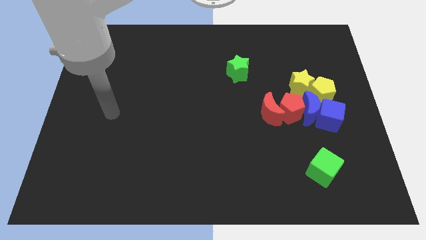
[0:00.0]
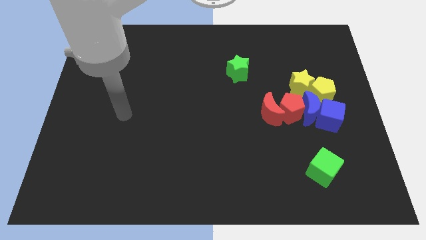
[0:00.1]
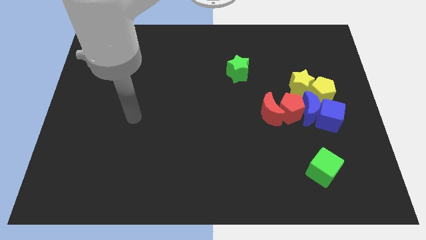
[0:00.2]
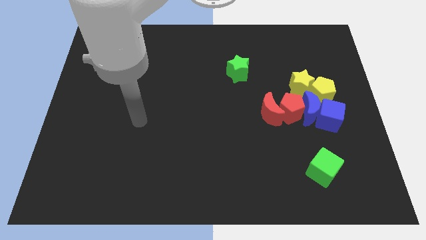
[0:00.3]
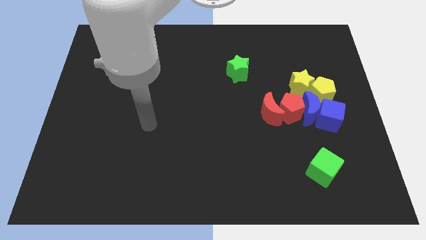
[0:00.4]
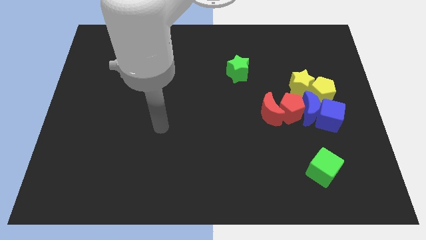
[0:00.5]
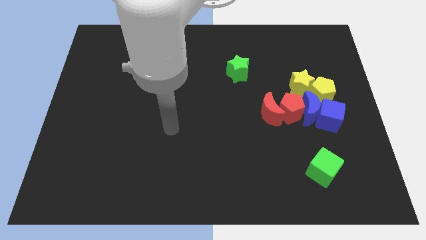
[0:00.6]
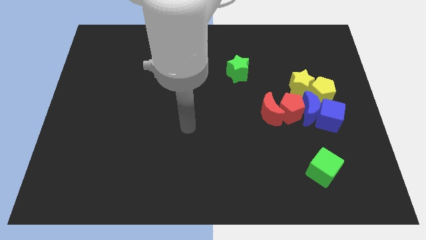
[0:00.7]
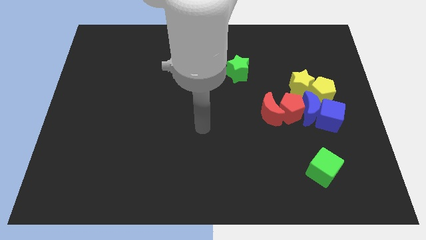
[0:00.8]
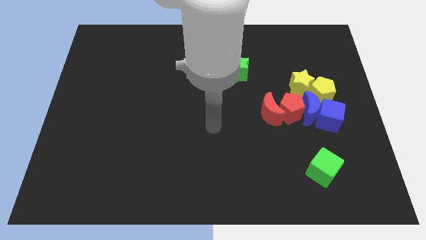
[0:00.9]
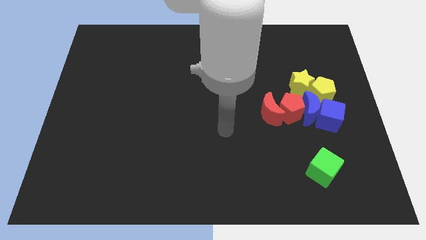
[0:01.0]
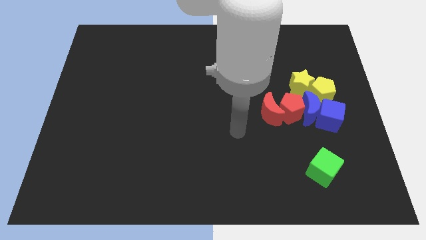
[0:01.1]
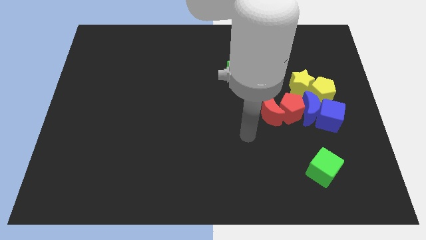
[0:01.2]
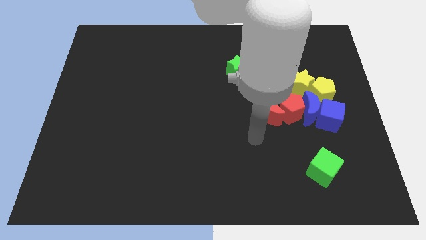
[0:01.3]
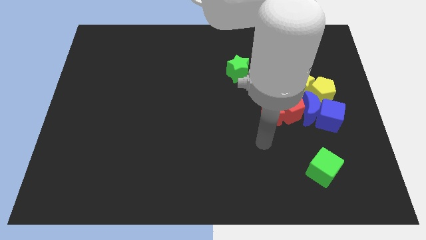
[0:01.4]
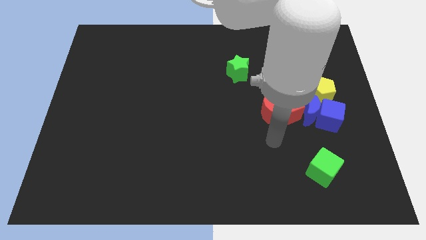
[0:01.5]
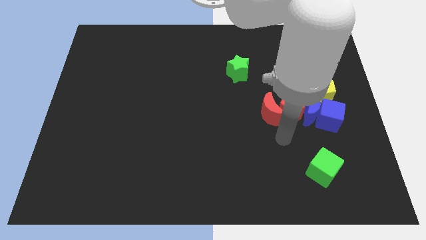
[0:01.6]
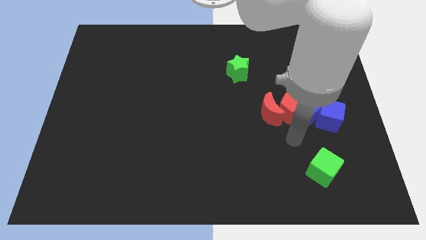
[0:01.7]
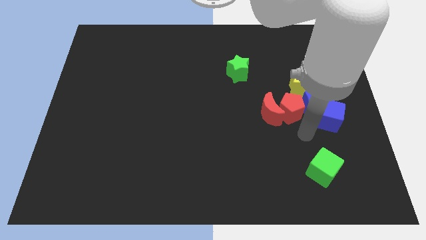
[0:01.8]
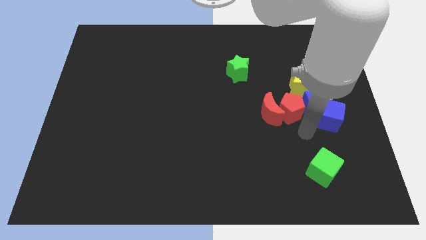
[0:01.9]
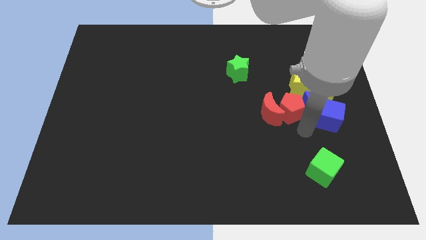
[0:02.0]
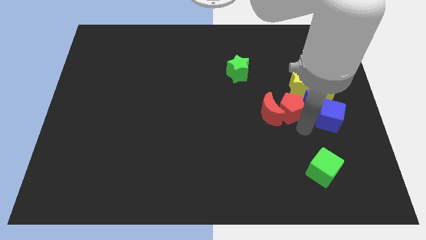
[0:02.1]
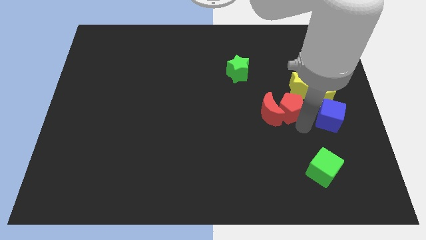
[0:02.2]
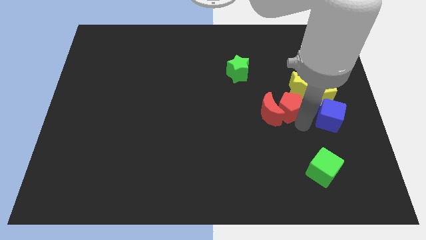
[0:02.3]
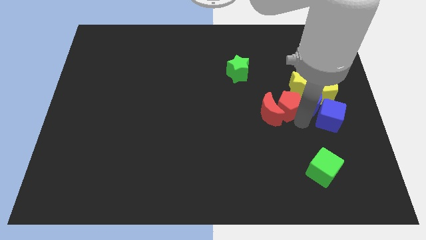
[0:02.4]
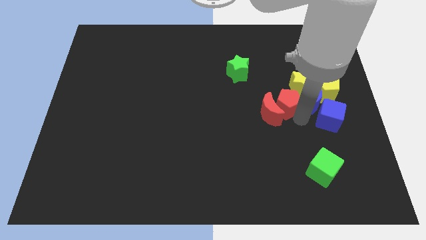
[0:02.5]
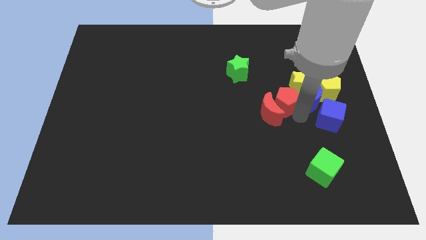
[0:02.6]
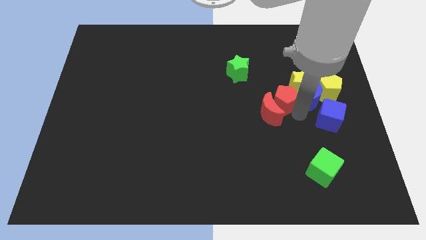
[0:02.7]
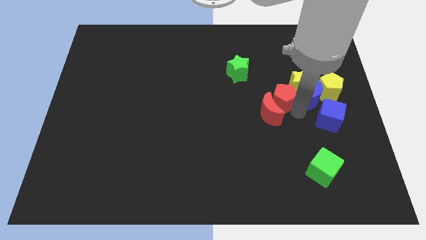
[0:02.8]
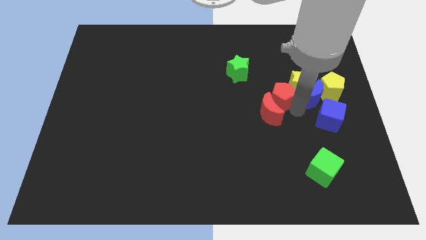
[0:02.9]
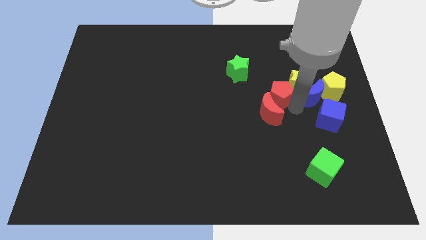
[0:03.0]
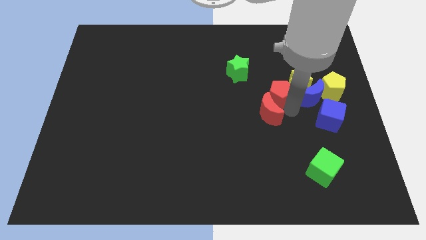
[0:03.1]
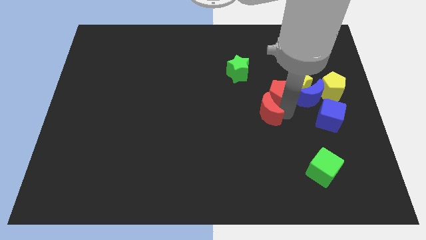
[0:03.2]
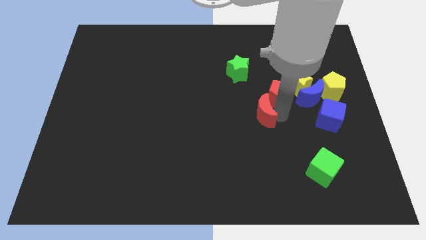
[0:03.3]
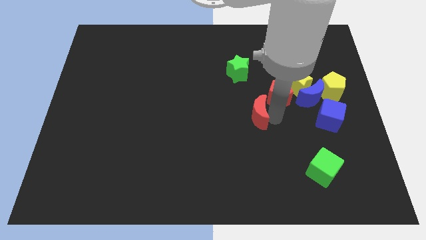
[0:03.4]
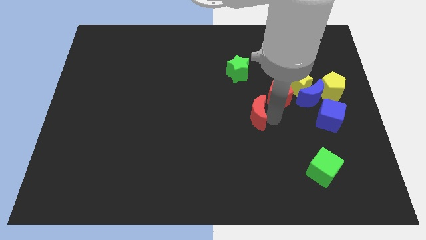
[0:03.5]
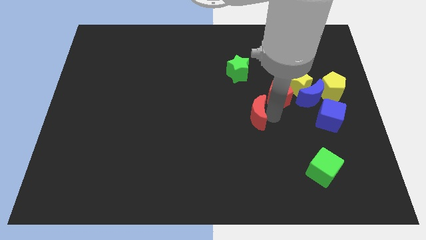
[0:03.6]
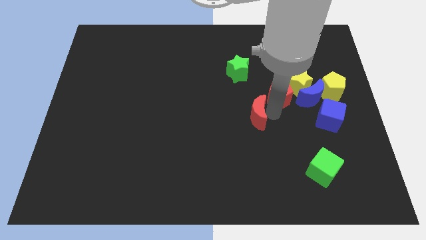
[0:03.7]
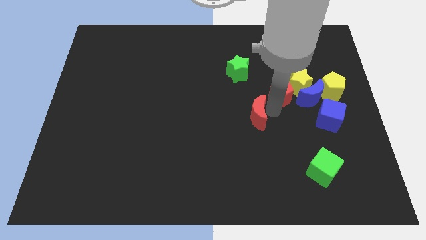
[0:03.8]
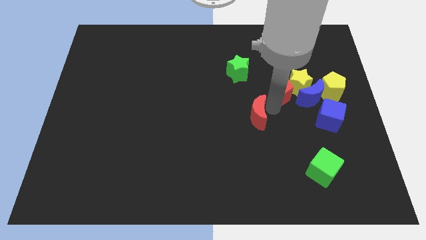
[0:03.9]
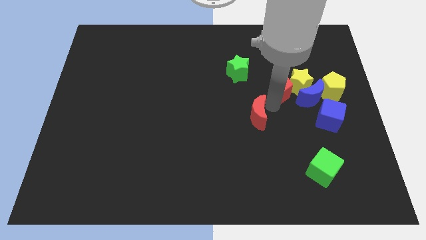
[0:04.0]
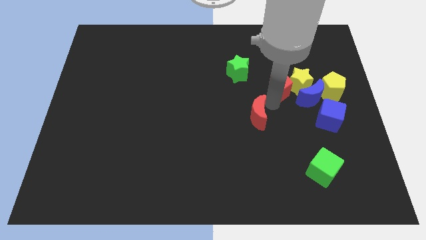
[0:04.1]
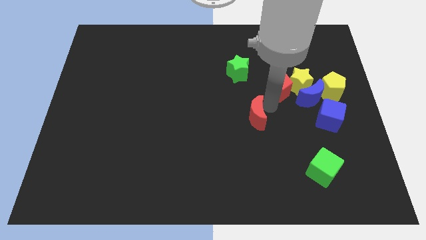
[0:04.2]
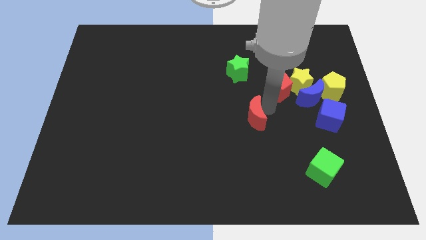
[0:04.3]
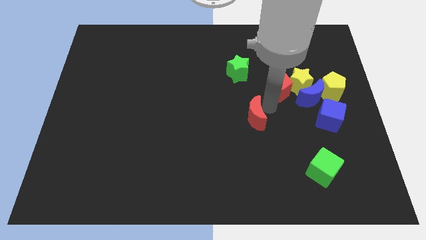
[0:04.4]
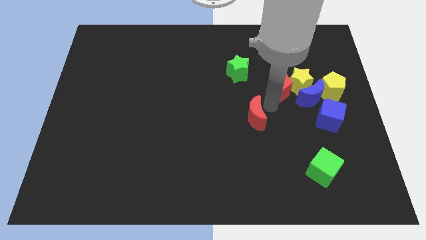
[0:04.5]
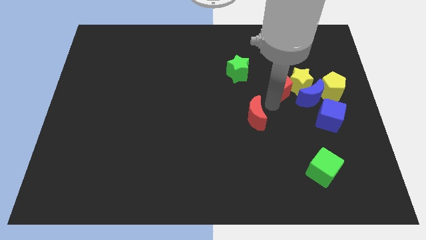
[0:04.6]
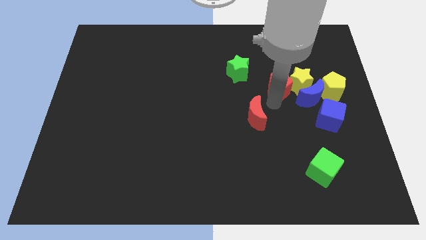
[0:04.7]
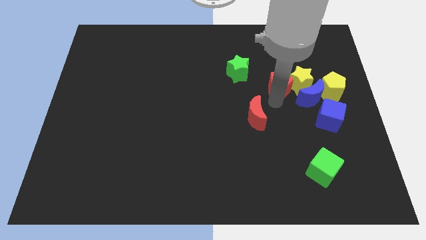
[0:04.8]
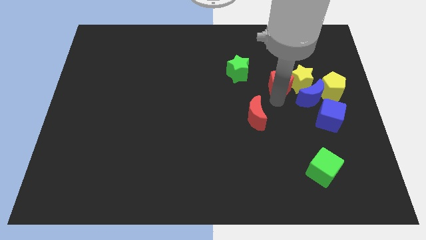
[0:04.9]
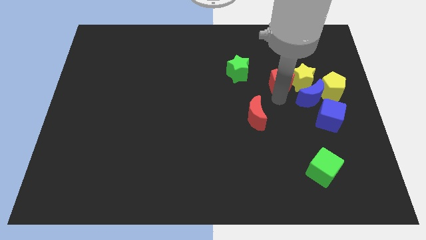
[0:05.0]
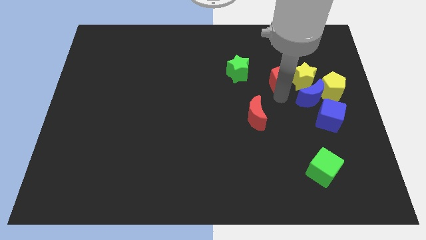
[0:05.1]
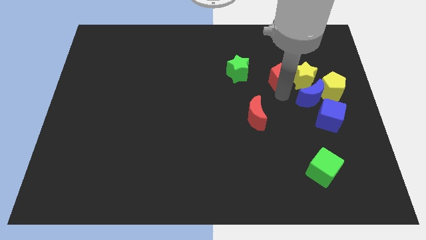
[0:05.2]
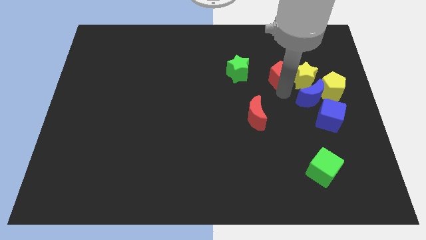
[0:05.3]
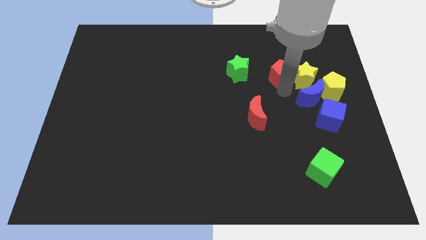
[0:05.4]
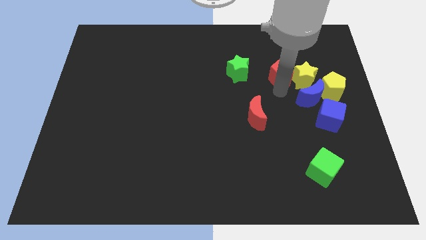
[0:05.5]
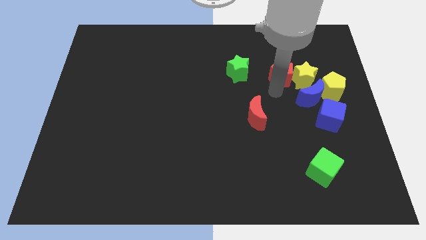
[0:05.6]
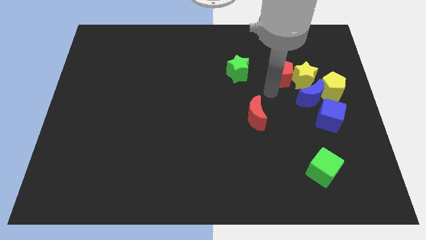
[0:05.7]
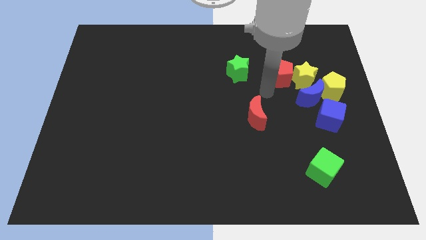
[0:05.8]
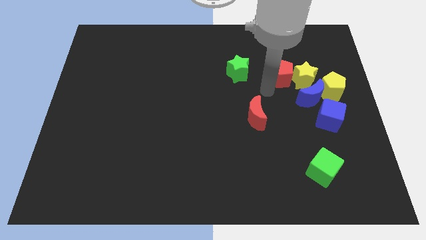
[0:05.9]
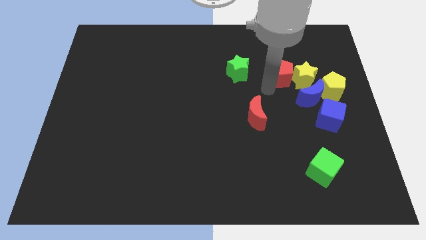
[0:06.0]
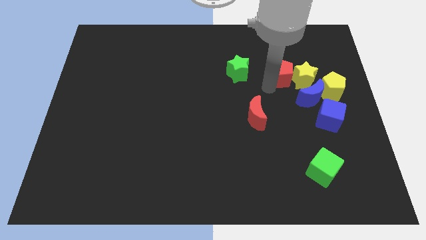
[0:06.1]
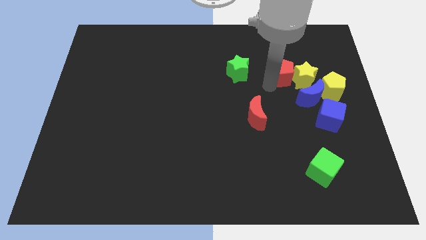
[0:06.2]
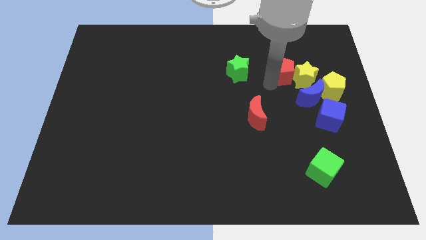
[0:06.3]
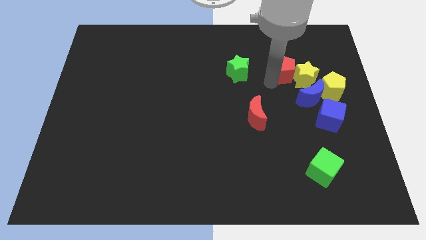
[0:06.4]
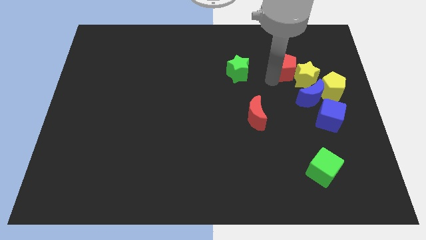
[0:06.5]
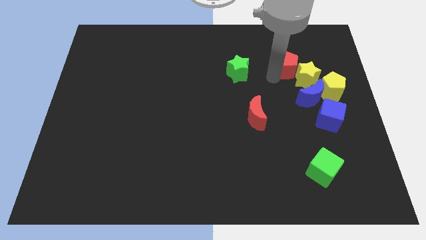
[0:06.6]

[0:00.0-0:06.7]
move the red pentagon to the top of the yellow star
